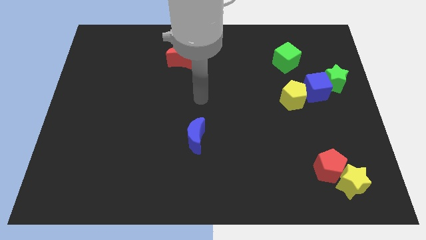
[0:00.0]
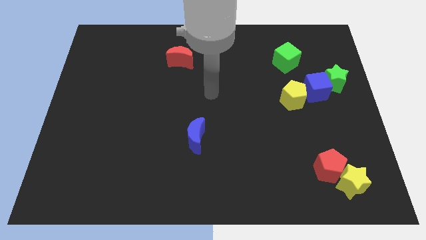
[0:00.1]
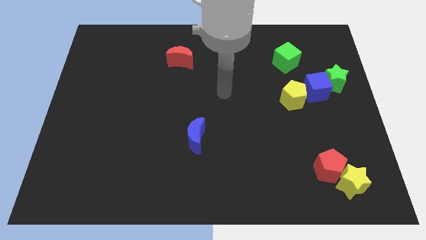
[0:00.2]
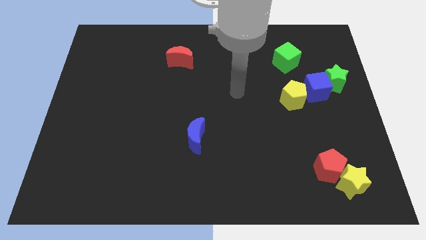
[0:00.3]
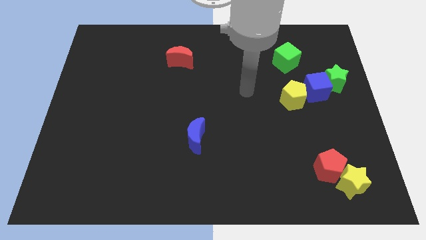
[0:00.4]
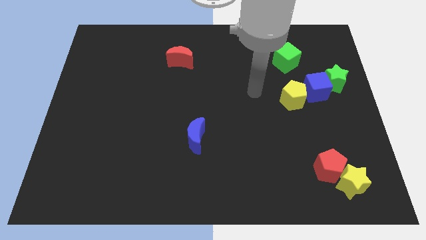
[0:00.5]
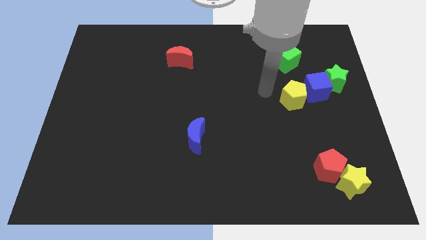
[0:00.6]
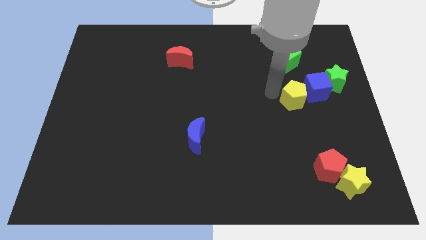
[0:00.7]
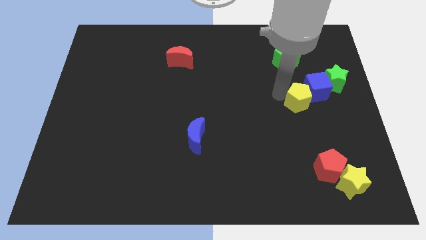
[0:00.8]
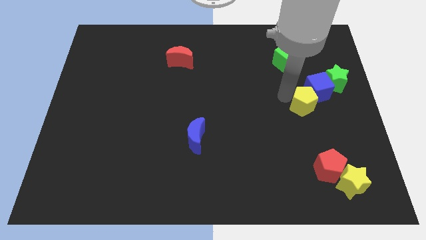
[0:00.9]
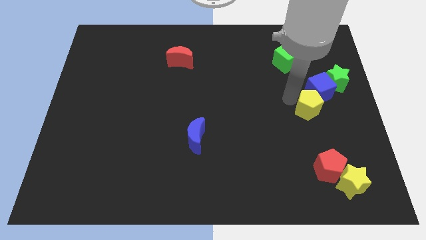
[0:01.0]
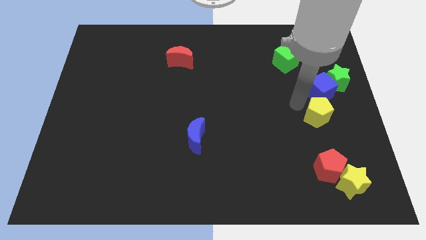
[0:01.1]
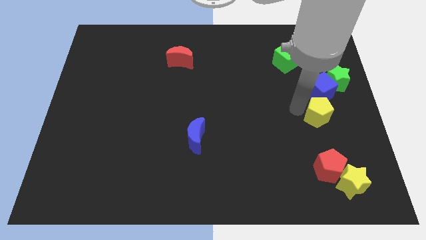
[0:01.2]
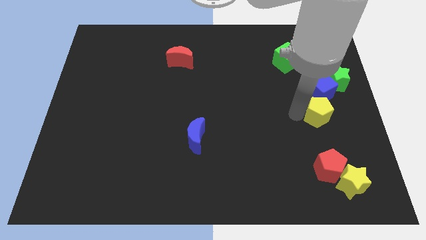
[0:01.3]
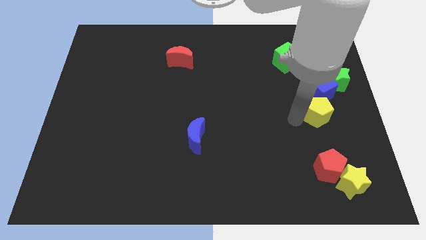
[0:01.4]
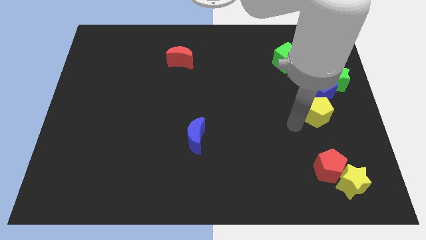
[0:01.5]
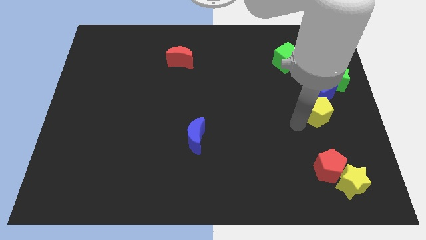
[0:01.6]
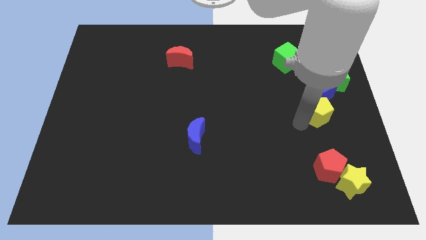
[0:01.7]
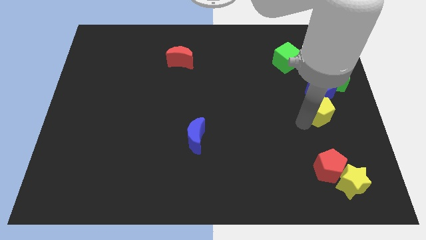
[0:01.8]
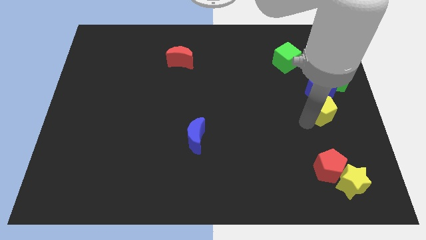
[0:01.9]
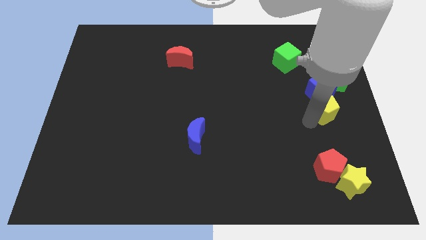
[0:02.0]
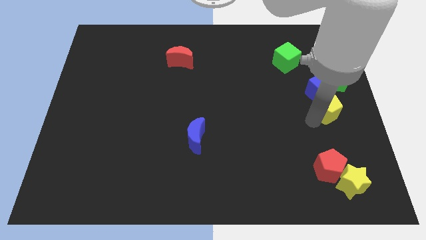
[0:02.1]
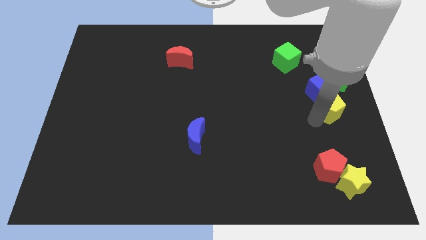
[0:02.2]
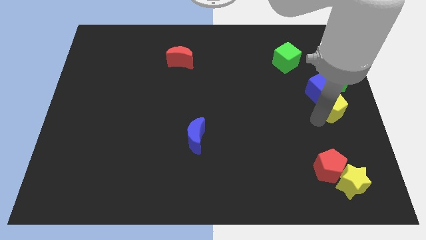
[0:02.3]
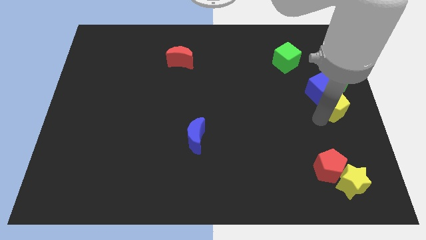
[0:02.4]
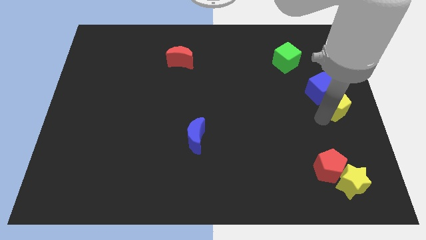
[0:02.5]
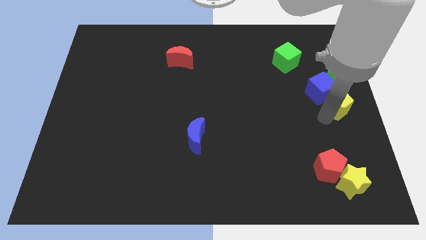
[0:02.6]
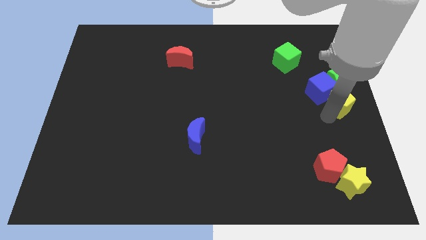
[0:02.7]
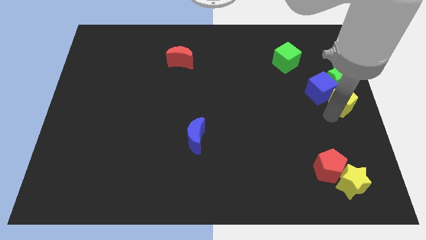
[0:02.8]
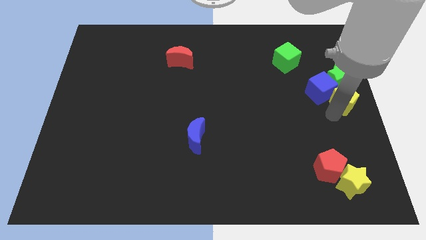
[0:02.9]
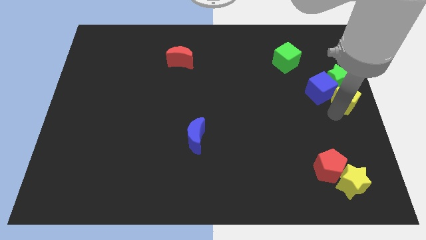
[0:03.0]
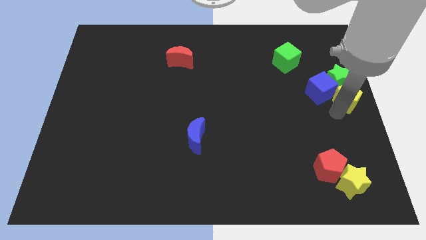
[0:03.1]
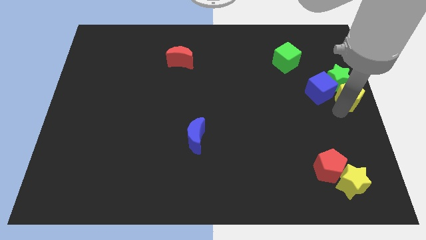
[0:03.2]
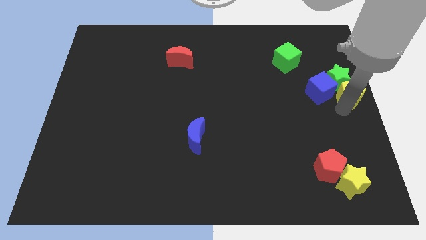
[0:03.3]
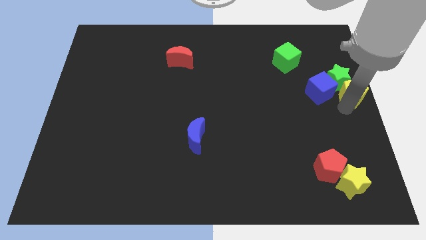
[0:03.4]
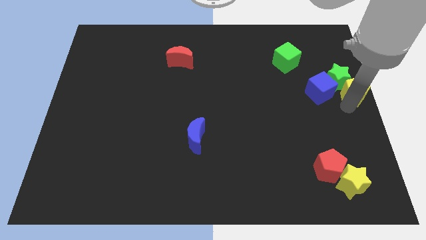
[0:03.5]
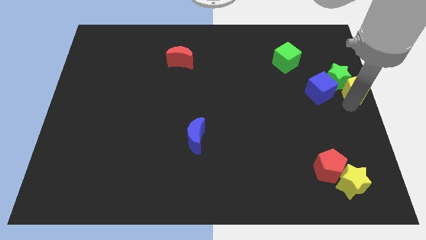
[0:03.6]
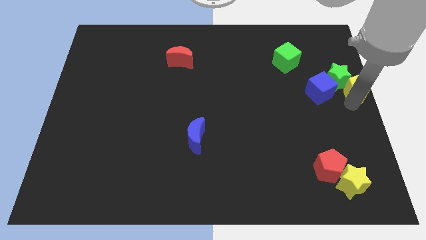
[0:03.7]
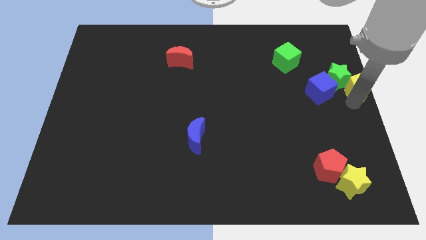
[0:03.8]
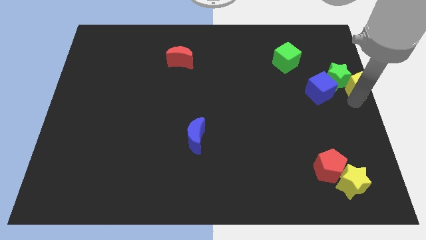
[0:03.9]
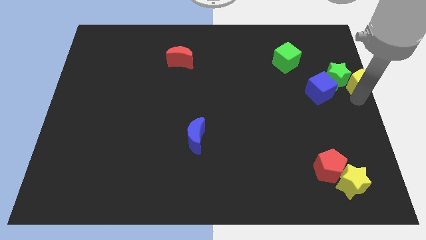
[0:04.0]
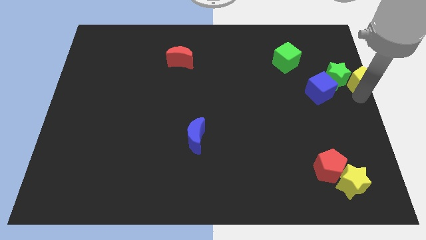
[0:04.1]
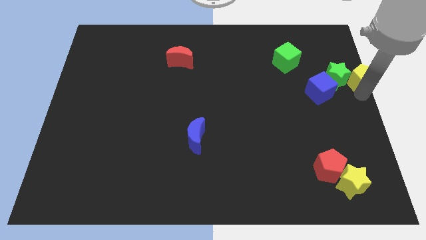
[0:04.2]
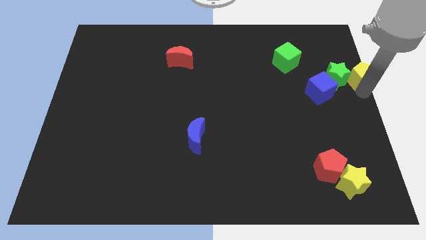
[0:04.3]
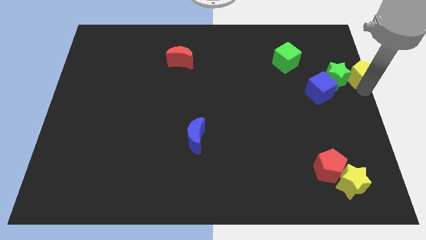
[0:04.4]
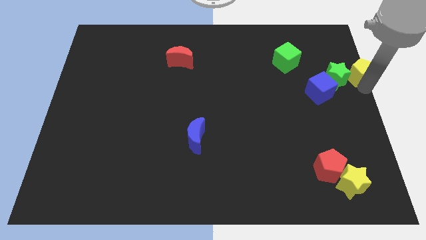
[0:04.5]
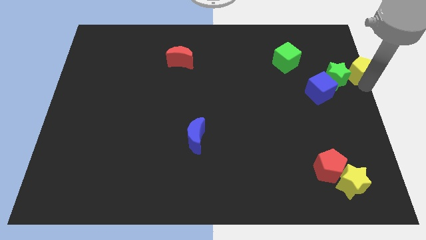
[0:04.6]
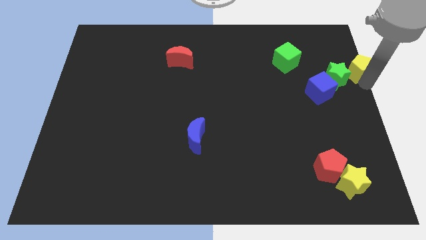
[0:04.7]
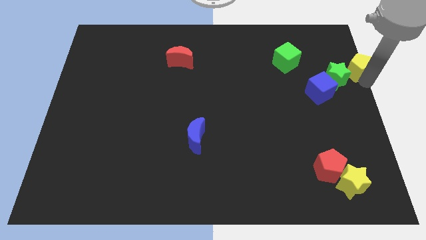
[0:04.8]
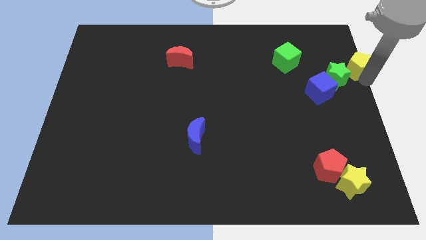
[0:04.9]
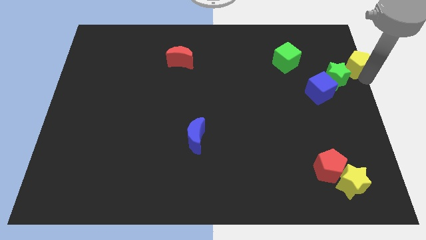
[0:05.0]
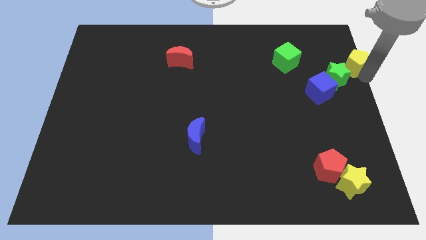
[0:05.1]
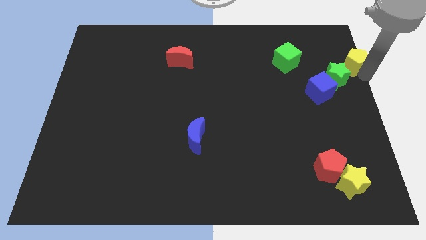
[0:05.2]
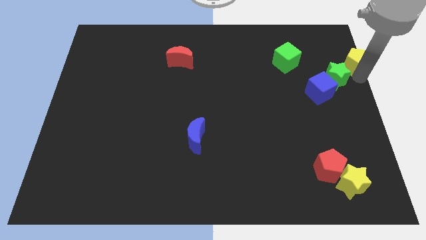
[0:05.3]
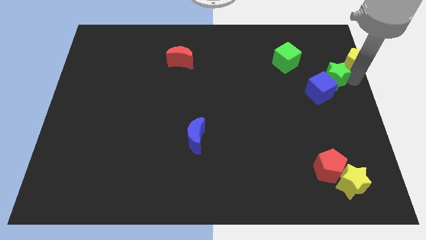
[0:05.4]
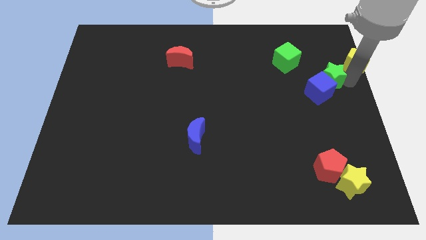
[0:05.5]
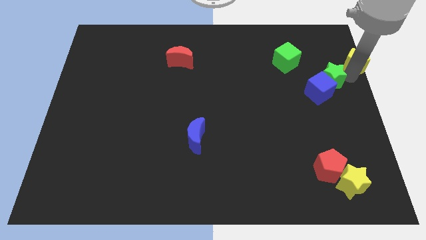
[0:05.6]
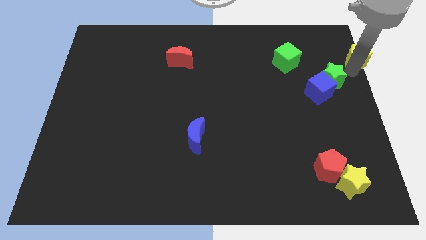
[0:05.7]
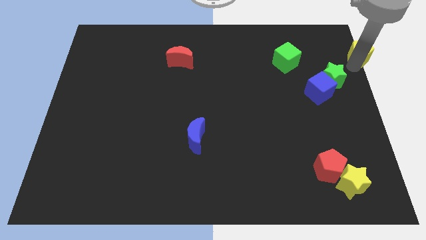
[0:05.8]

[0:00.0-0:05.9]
slide the yellow pentagon to the top right of the board
